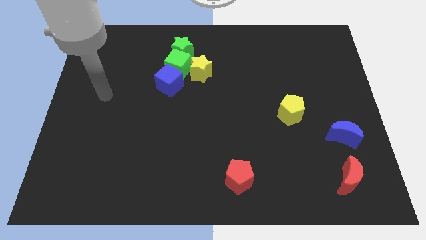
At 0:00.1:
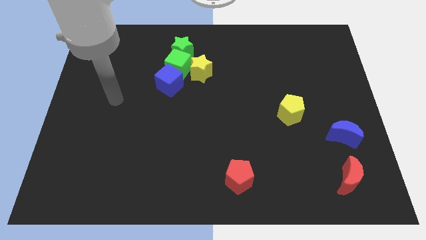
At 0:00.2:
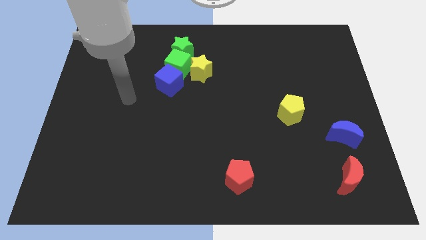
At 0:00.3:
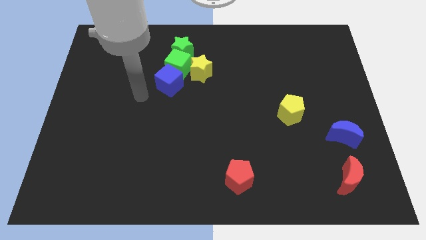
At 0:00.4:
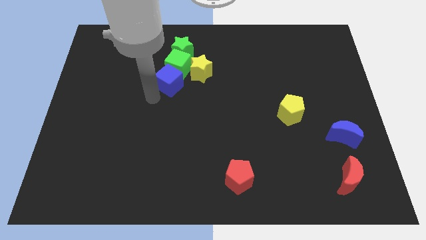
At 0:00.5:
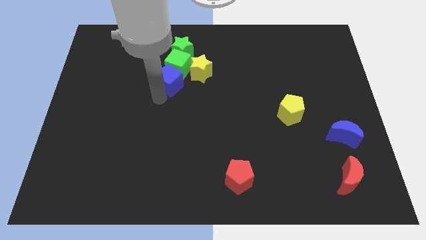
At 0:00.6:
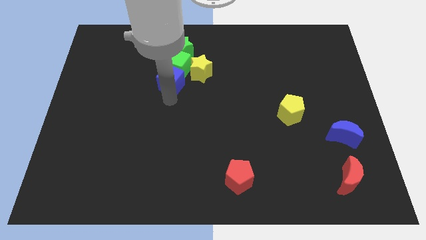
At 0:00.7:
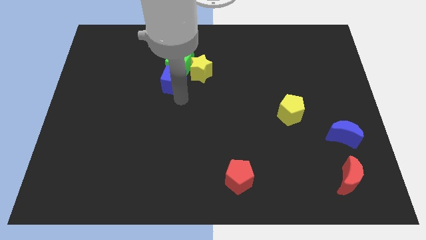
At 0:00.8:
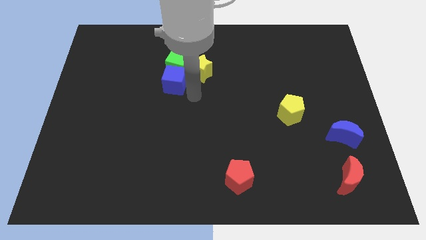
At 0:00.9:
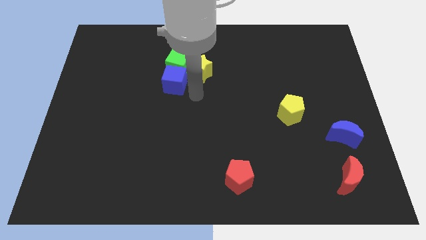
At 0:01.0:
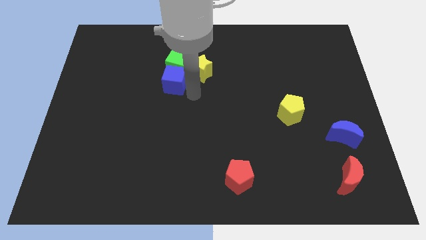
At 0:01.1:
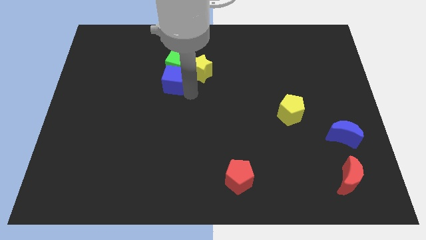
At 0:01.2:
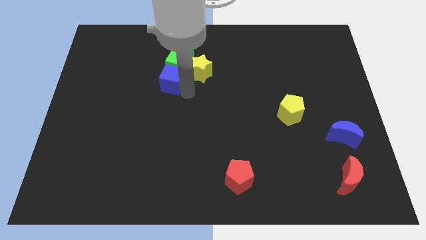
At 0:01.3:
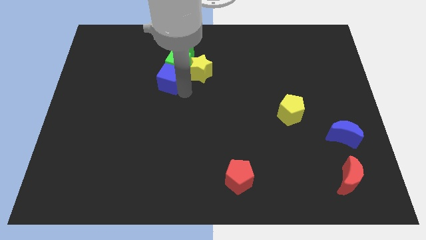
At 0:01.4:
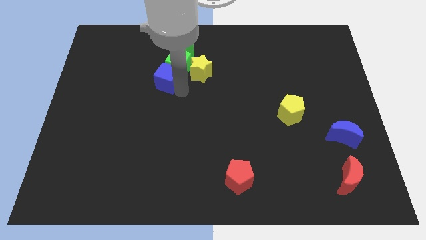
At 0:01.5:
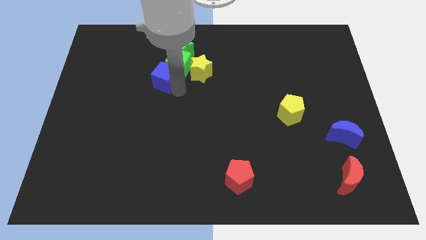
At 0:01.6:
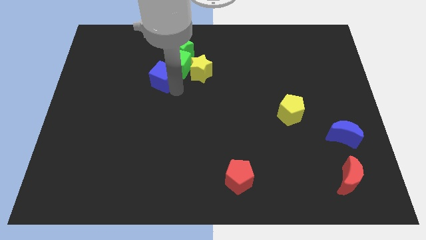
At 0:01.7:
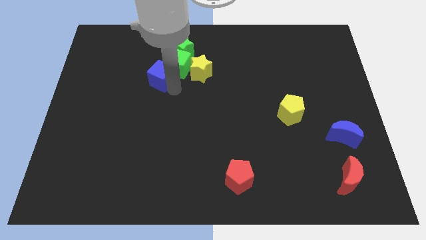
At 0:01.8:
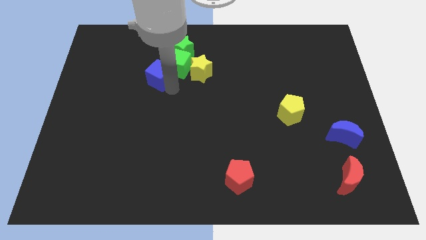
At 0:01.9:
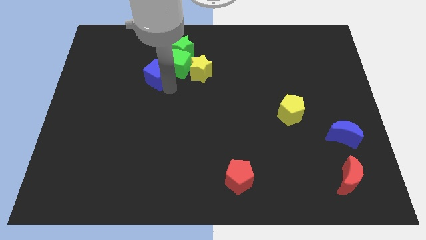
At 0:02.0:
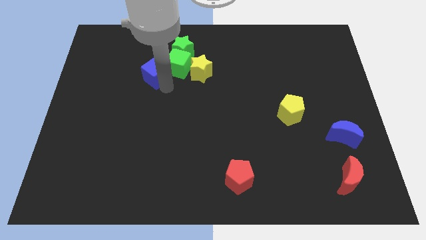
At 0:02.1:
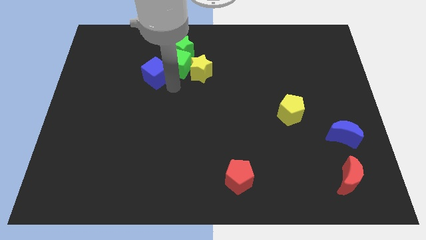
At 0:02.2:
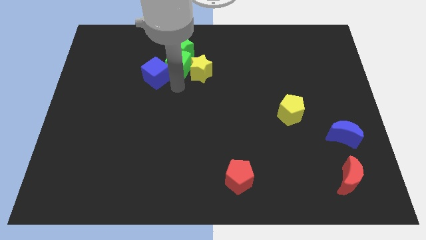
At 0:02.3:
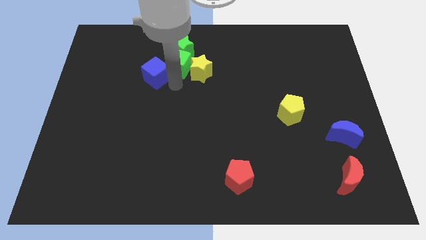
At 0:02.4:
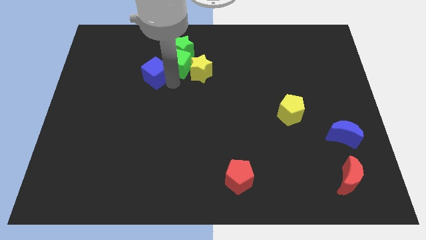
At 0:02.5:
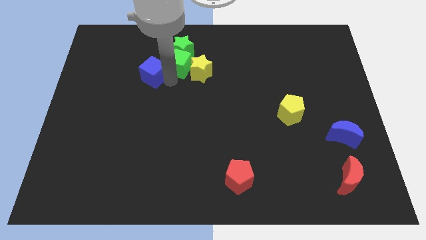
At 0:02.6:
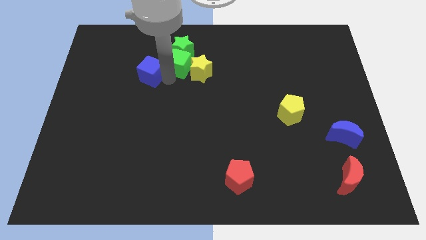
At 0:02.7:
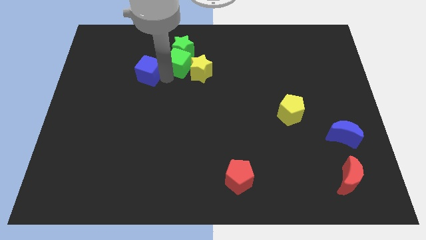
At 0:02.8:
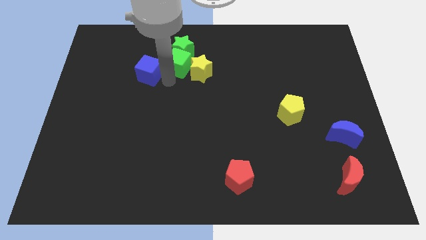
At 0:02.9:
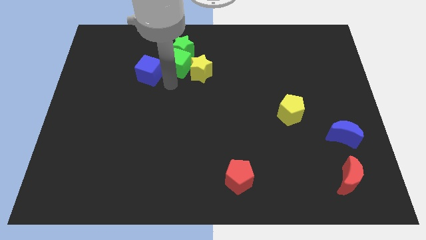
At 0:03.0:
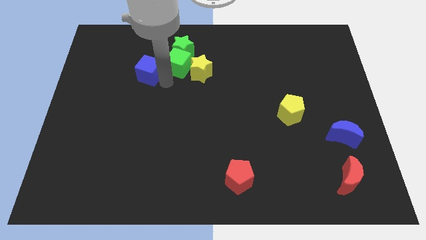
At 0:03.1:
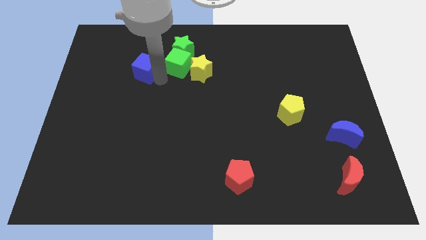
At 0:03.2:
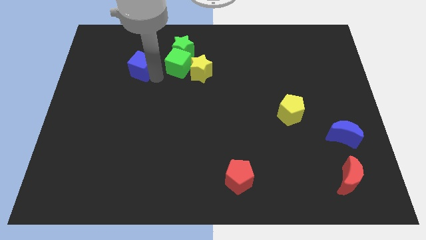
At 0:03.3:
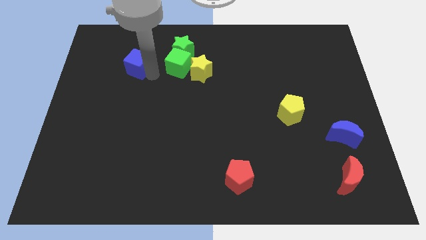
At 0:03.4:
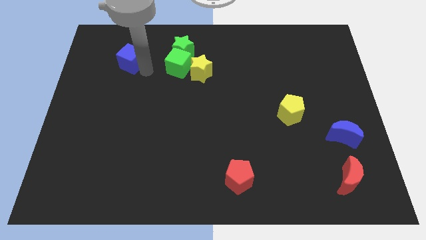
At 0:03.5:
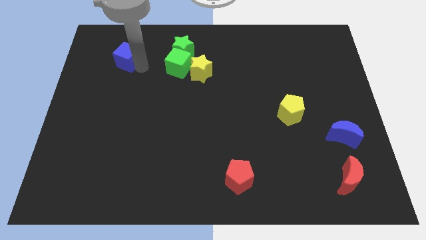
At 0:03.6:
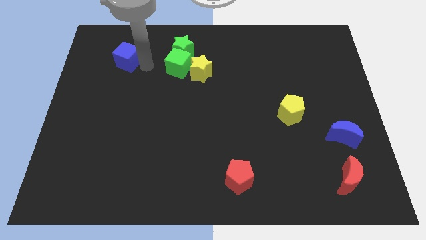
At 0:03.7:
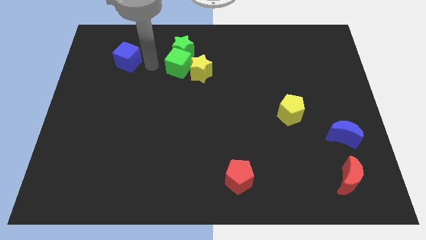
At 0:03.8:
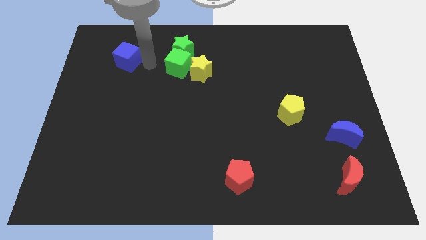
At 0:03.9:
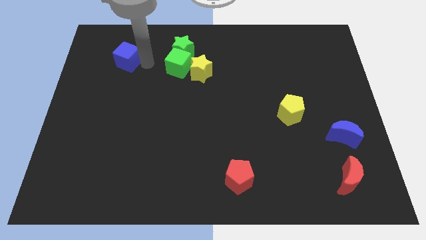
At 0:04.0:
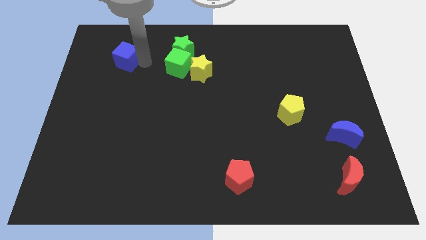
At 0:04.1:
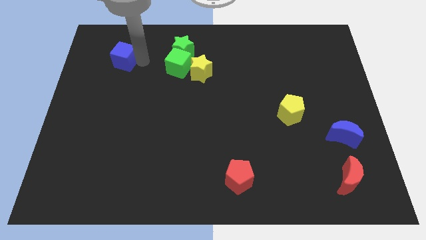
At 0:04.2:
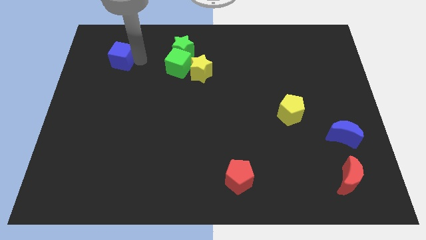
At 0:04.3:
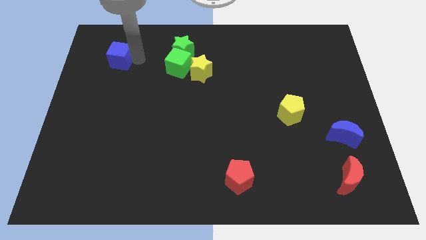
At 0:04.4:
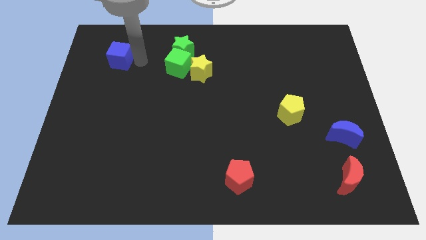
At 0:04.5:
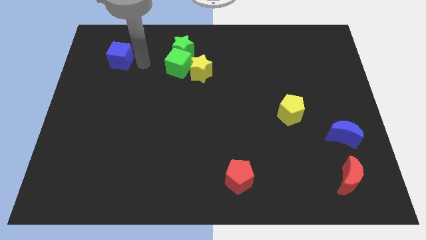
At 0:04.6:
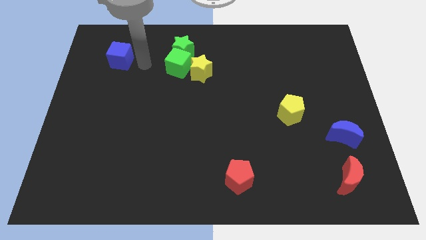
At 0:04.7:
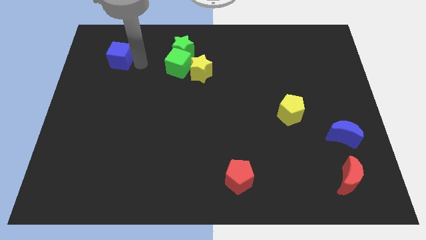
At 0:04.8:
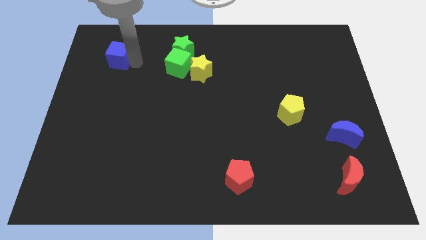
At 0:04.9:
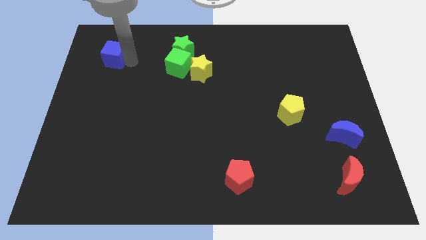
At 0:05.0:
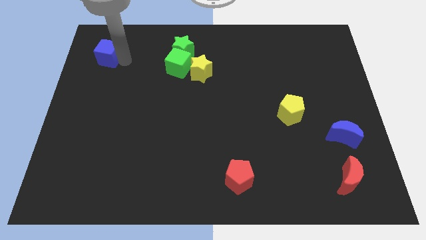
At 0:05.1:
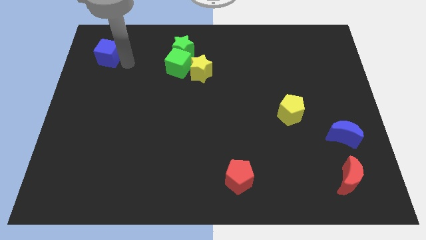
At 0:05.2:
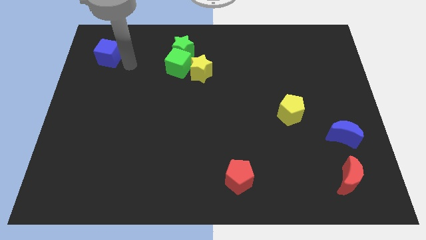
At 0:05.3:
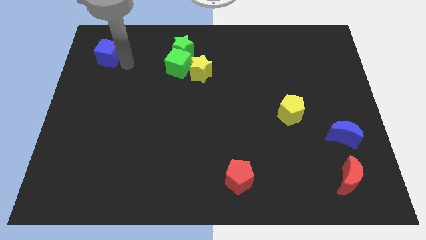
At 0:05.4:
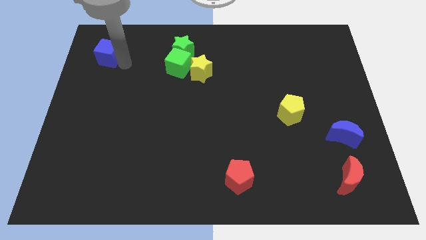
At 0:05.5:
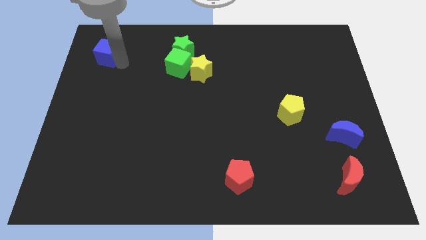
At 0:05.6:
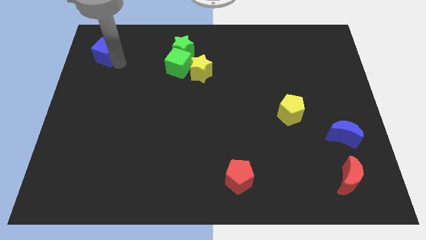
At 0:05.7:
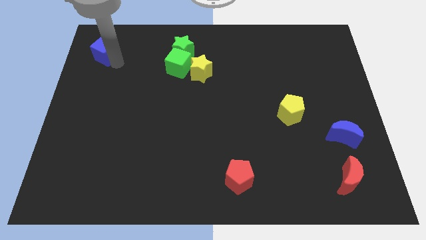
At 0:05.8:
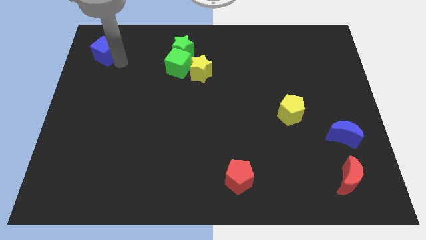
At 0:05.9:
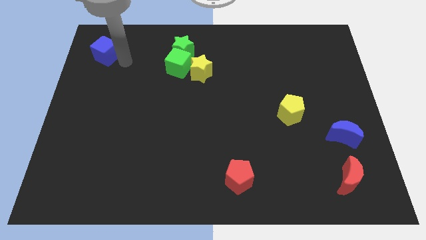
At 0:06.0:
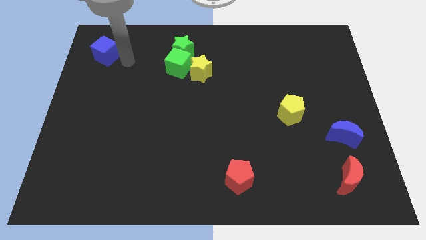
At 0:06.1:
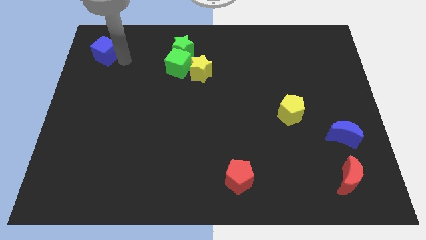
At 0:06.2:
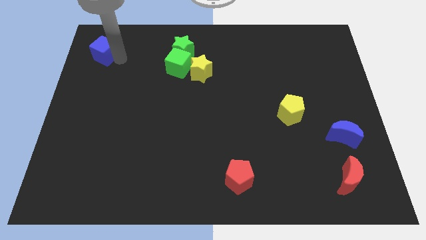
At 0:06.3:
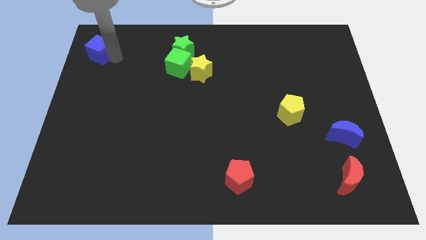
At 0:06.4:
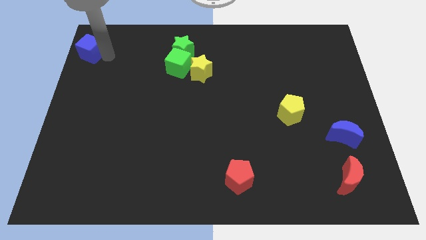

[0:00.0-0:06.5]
push the blue cube to the top left of the board
